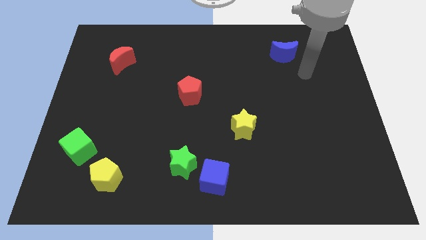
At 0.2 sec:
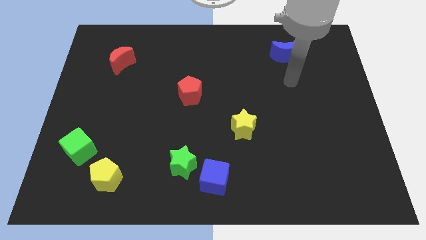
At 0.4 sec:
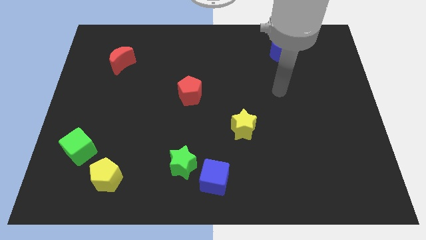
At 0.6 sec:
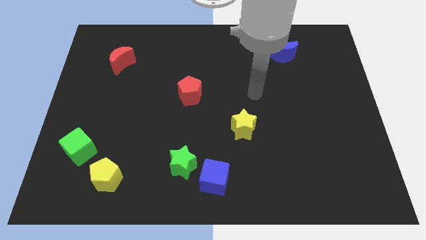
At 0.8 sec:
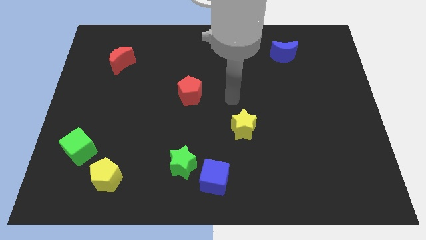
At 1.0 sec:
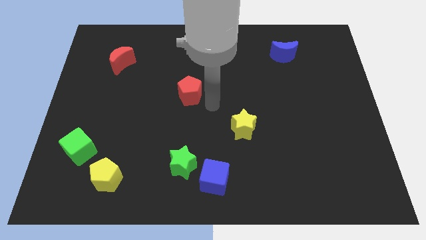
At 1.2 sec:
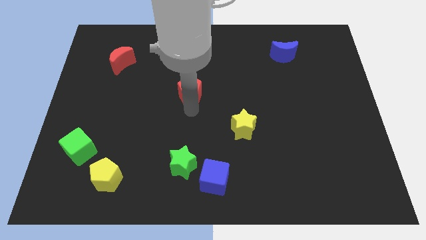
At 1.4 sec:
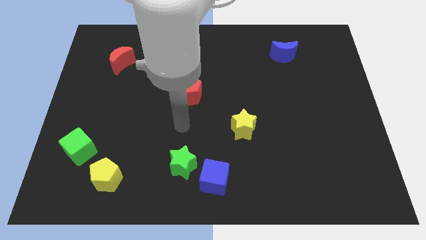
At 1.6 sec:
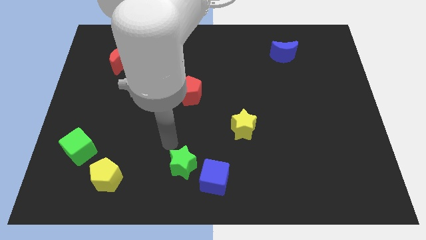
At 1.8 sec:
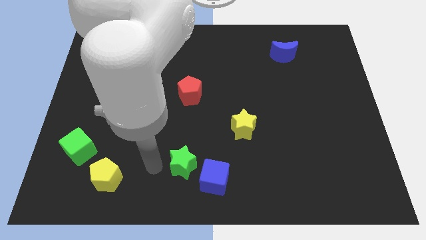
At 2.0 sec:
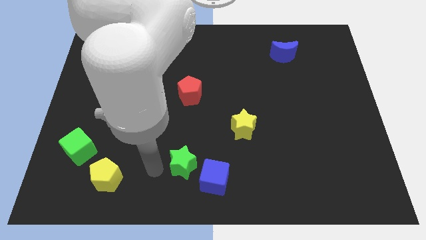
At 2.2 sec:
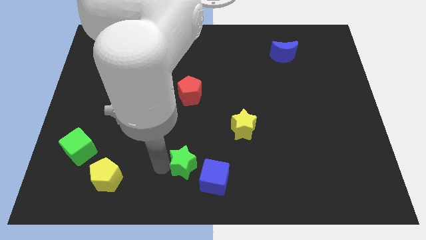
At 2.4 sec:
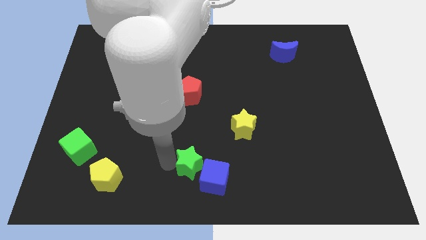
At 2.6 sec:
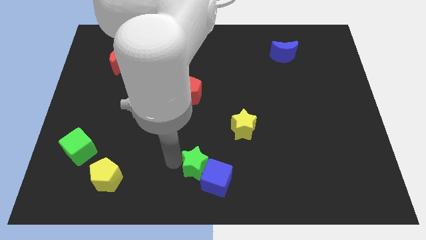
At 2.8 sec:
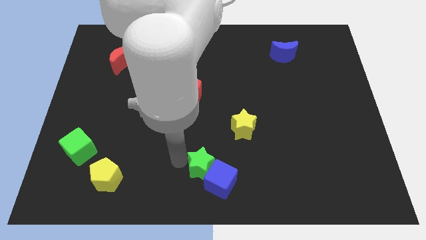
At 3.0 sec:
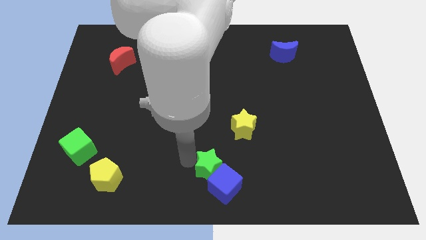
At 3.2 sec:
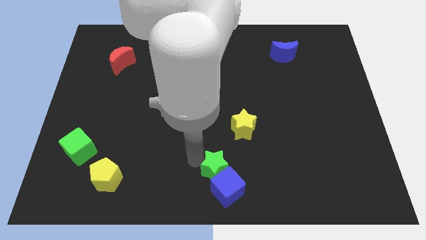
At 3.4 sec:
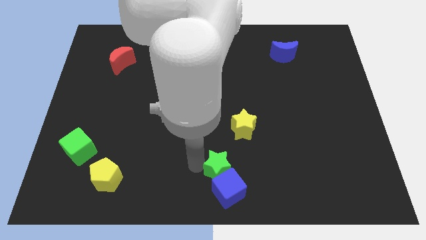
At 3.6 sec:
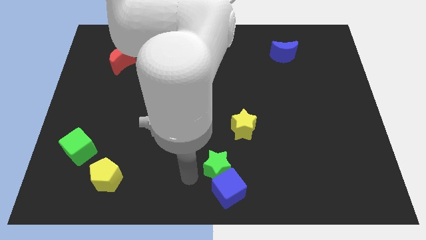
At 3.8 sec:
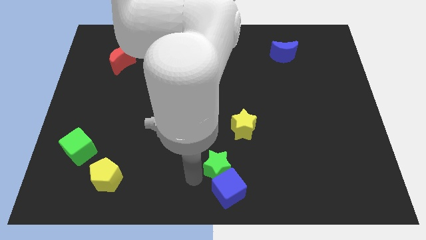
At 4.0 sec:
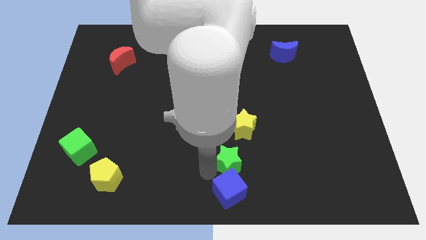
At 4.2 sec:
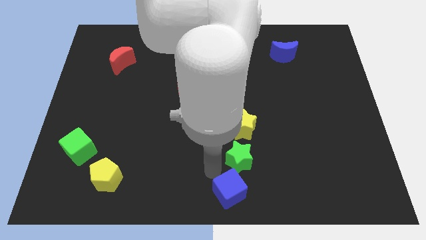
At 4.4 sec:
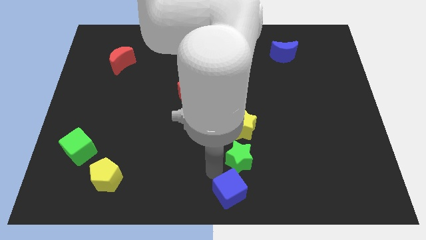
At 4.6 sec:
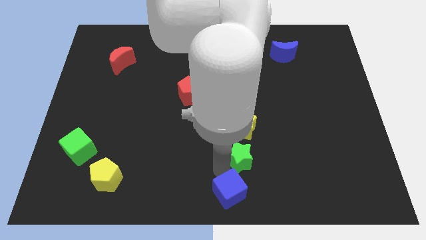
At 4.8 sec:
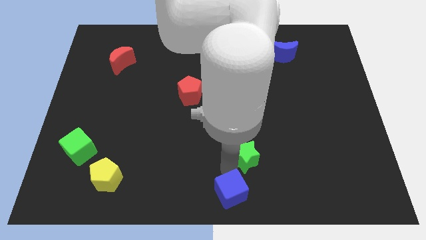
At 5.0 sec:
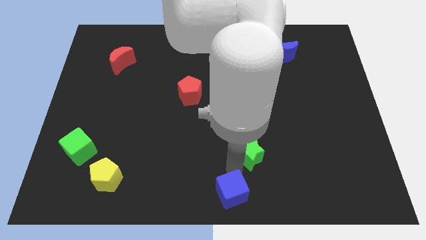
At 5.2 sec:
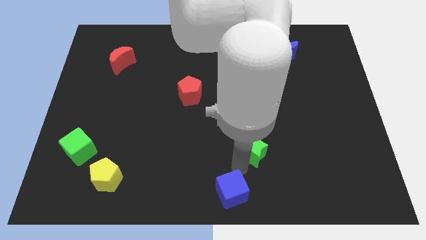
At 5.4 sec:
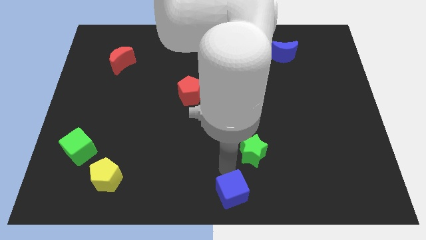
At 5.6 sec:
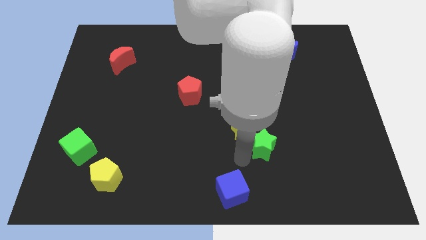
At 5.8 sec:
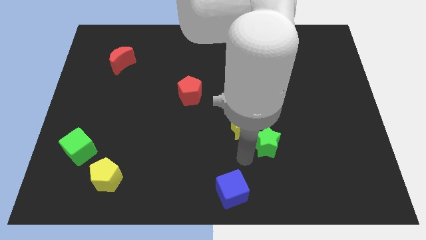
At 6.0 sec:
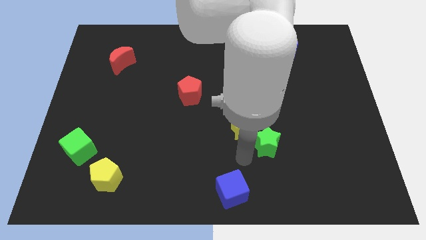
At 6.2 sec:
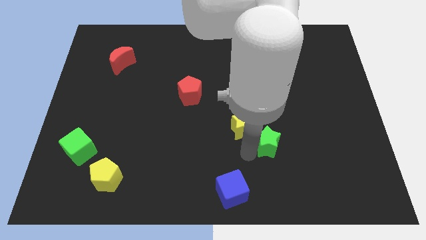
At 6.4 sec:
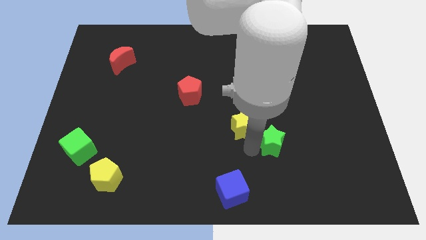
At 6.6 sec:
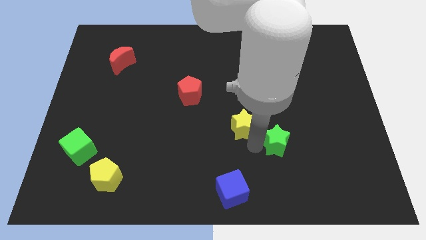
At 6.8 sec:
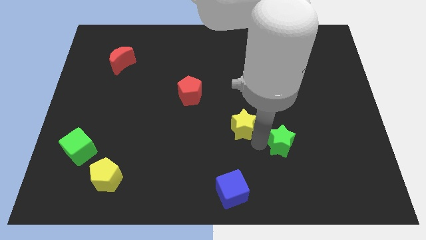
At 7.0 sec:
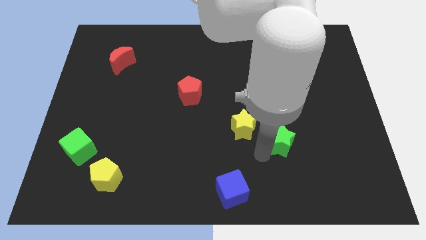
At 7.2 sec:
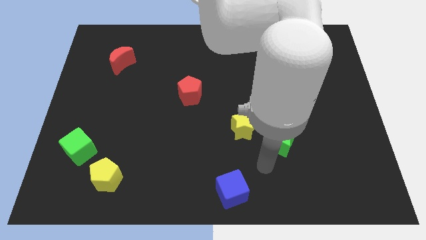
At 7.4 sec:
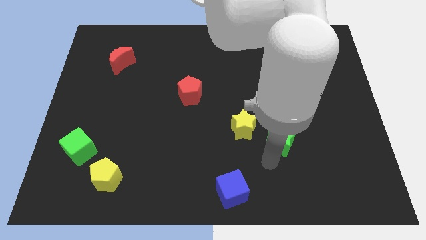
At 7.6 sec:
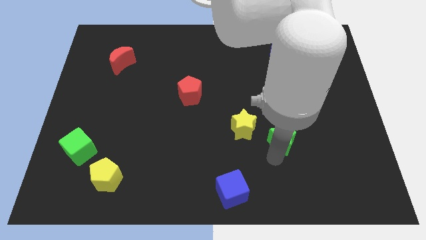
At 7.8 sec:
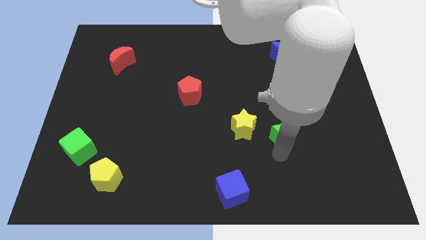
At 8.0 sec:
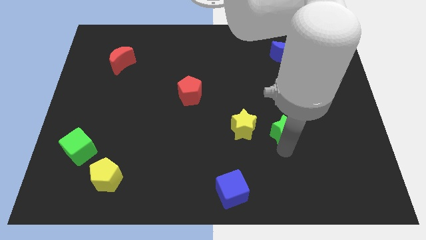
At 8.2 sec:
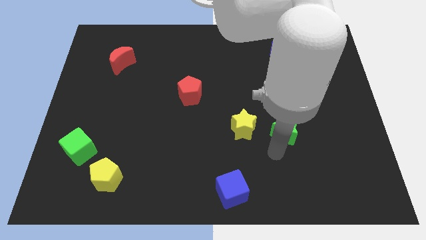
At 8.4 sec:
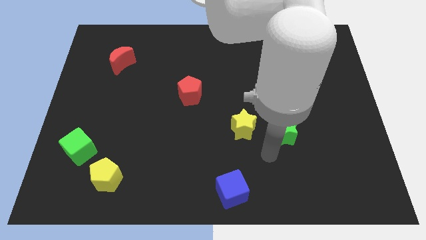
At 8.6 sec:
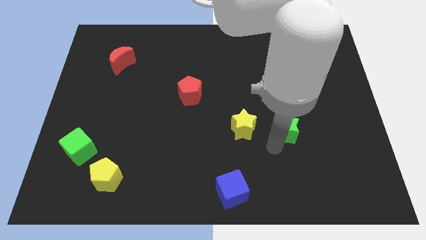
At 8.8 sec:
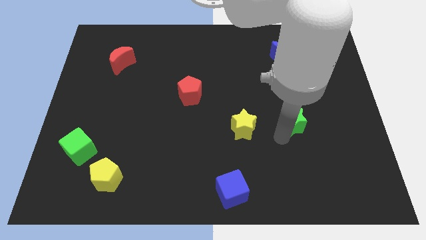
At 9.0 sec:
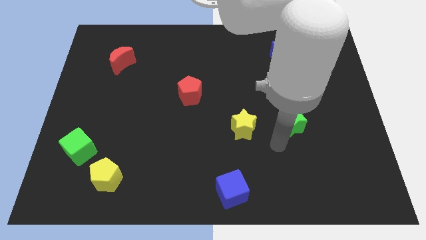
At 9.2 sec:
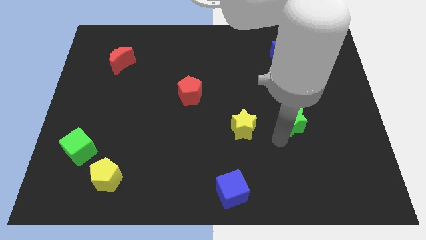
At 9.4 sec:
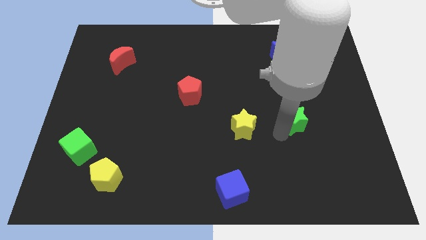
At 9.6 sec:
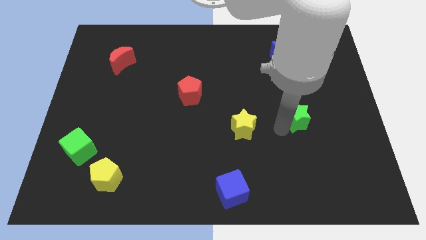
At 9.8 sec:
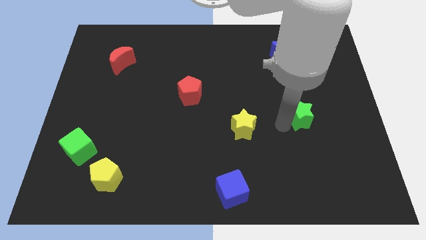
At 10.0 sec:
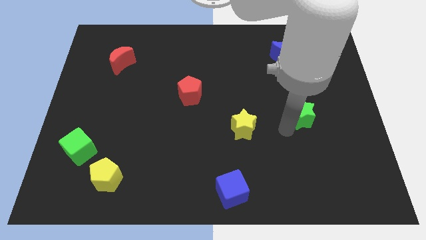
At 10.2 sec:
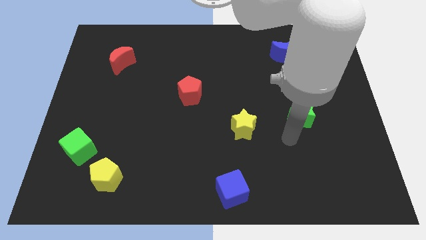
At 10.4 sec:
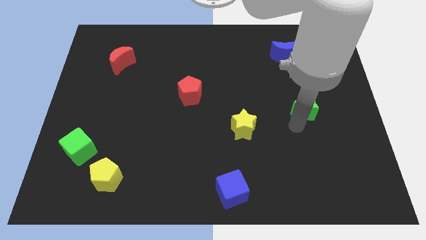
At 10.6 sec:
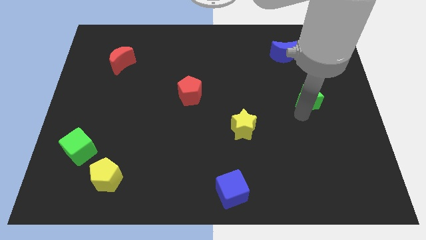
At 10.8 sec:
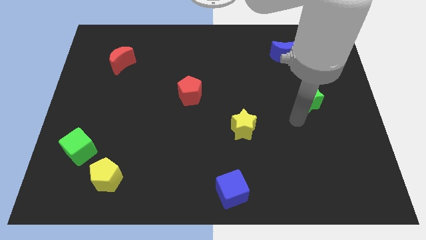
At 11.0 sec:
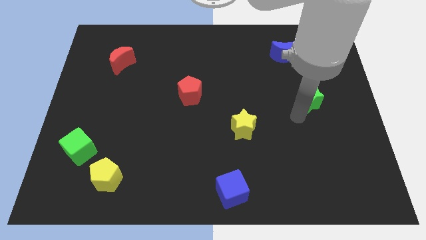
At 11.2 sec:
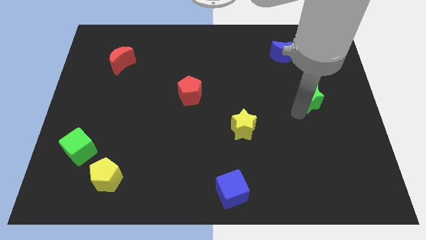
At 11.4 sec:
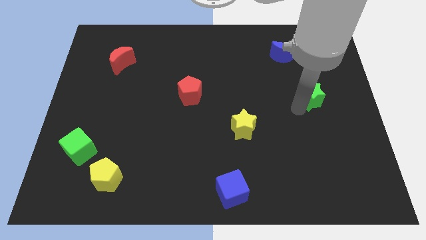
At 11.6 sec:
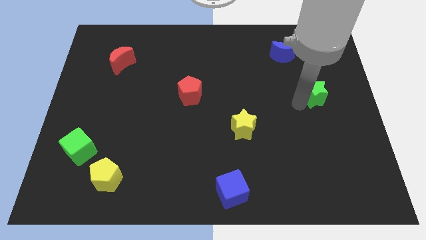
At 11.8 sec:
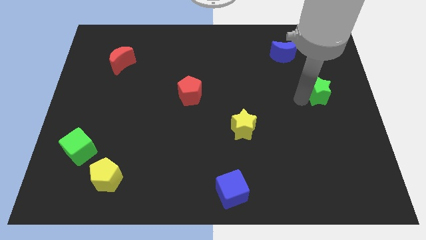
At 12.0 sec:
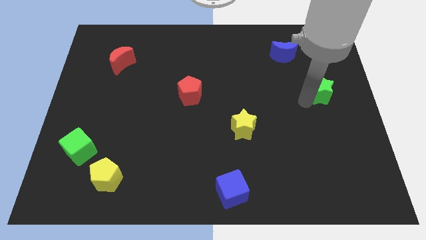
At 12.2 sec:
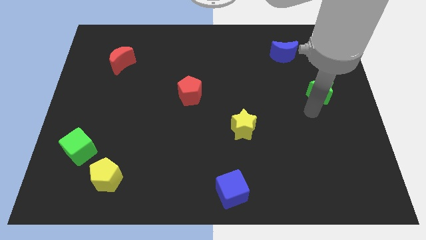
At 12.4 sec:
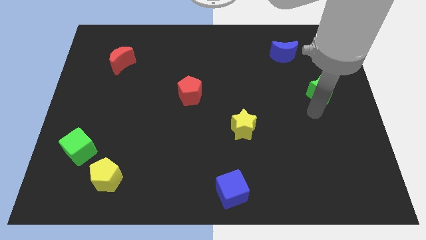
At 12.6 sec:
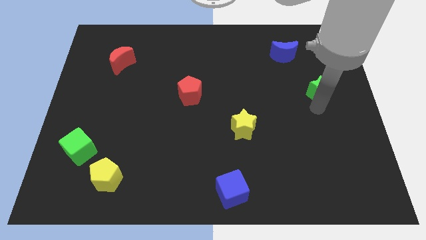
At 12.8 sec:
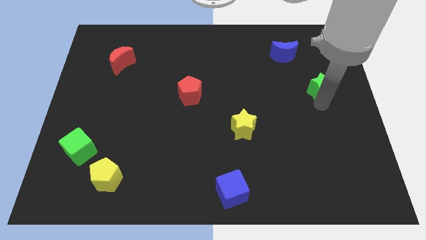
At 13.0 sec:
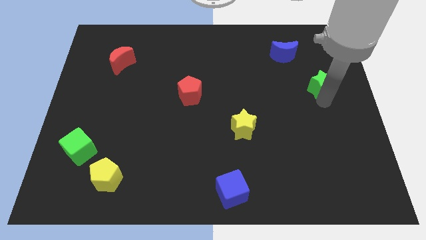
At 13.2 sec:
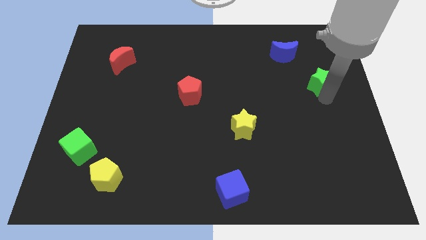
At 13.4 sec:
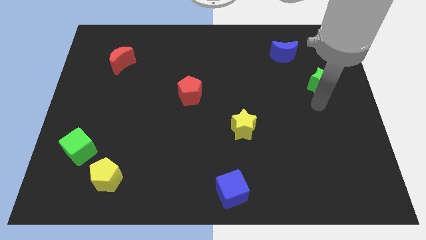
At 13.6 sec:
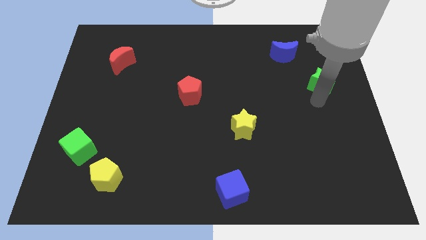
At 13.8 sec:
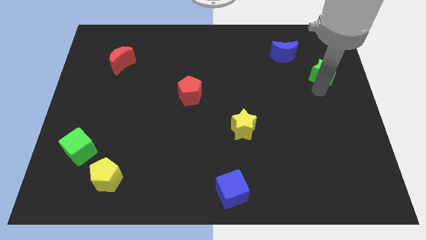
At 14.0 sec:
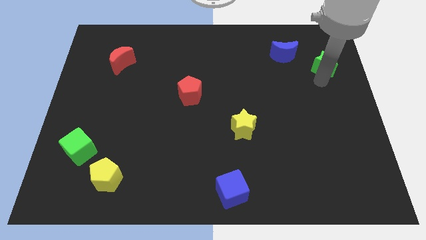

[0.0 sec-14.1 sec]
push the green star just right of the blue moon

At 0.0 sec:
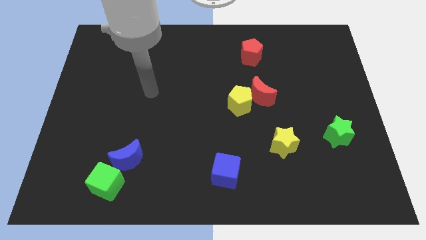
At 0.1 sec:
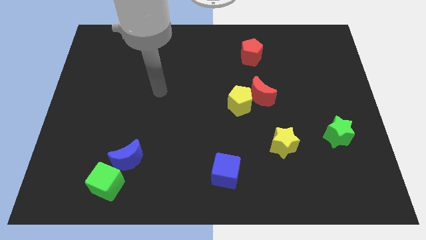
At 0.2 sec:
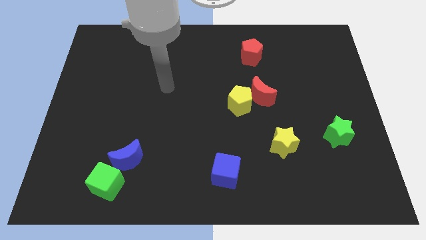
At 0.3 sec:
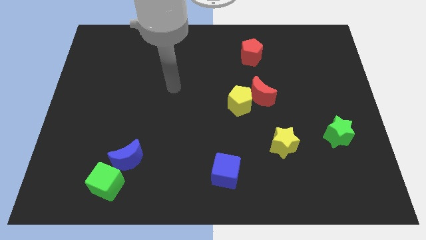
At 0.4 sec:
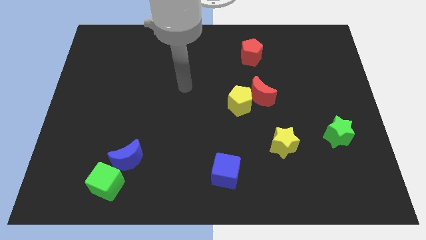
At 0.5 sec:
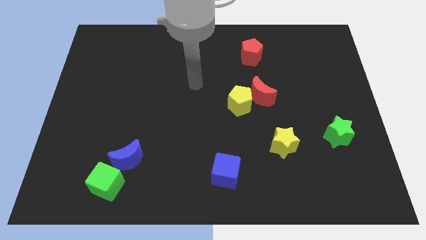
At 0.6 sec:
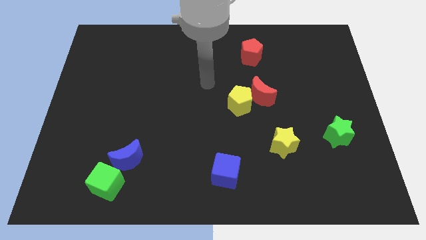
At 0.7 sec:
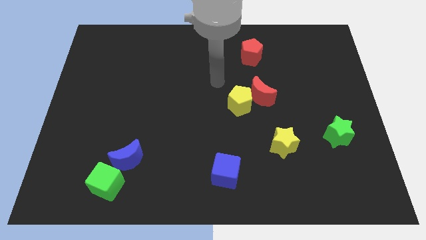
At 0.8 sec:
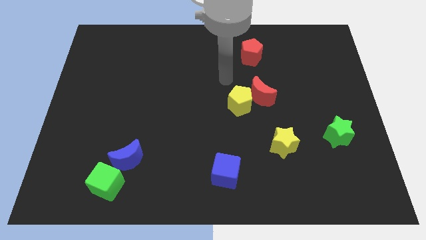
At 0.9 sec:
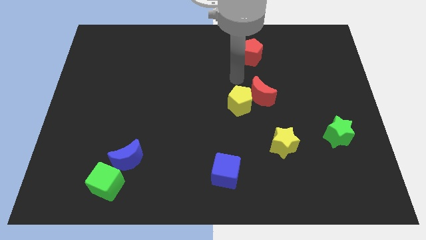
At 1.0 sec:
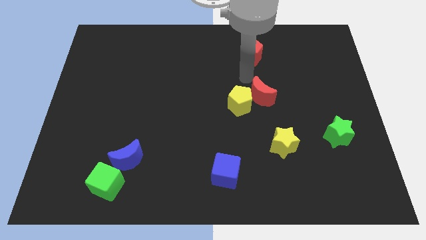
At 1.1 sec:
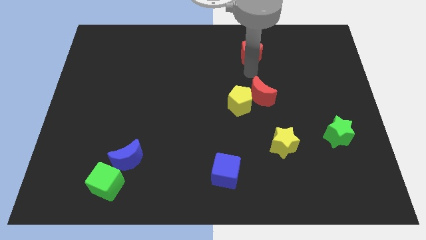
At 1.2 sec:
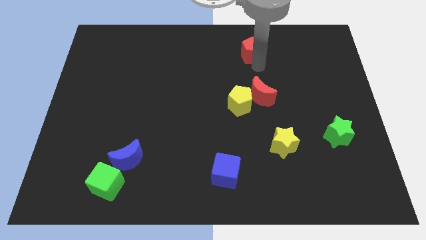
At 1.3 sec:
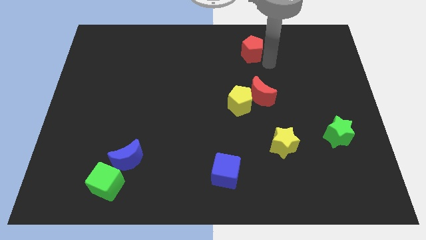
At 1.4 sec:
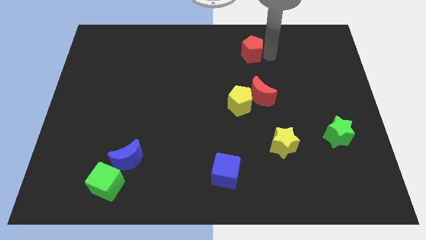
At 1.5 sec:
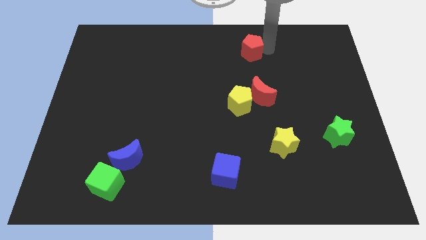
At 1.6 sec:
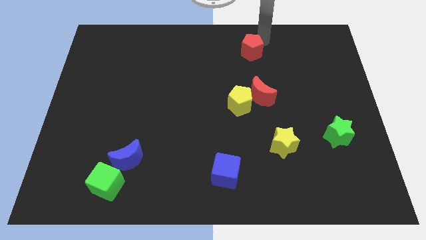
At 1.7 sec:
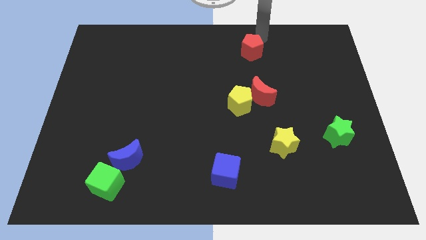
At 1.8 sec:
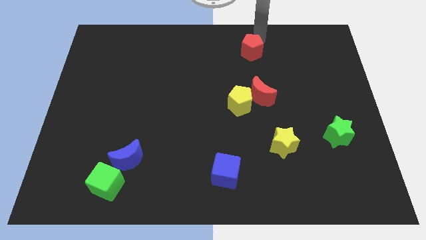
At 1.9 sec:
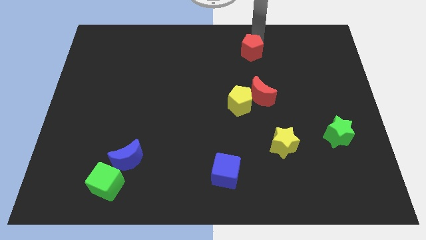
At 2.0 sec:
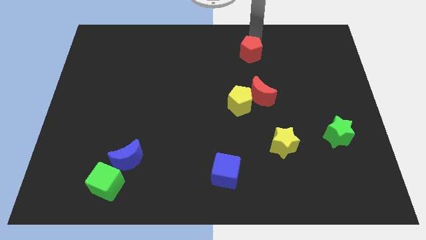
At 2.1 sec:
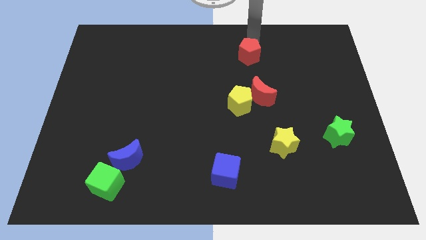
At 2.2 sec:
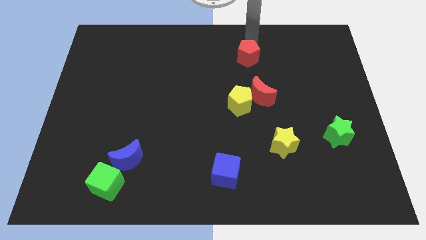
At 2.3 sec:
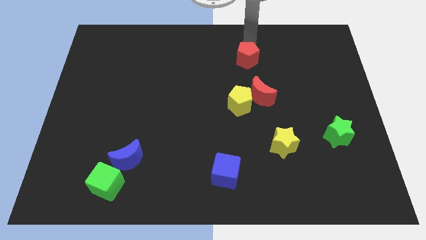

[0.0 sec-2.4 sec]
put the red pentagon to the top side of the yellow pentagon
